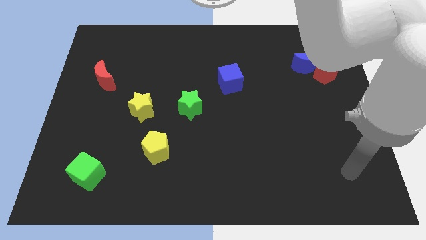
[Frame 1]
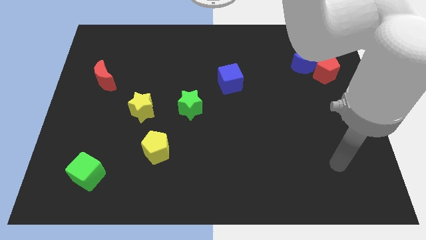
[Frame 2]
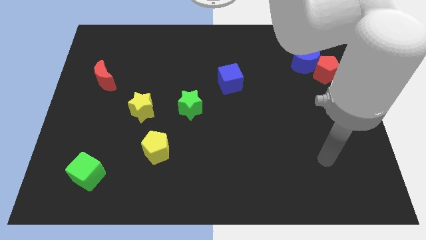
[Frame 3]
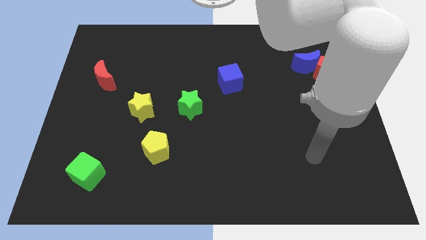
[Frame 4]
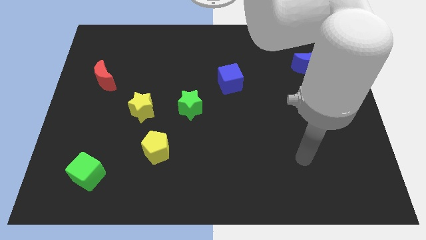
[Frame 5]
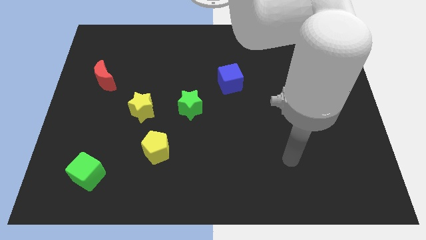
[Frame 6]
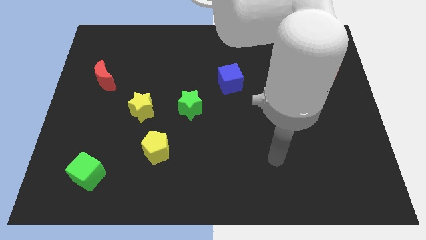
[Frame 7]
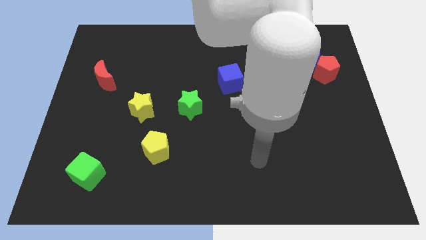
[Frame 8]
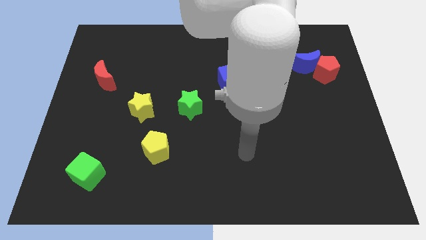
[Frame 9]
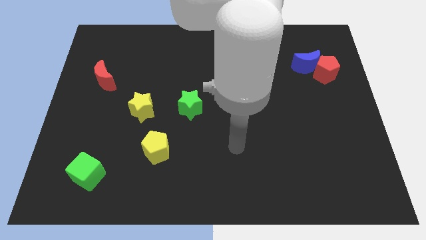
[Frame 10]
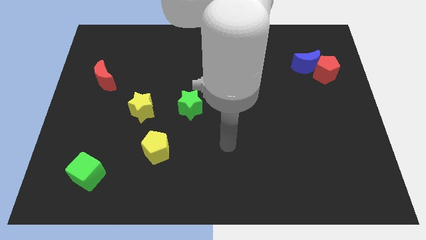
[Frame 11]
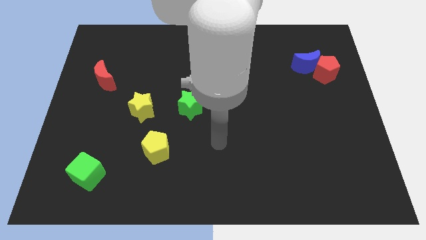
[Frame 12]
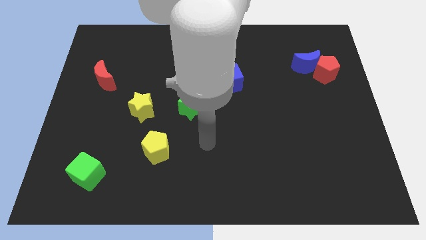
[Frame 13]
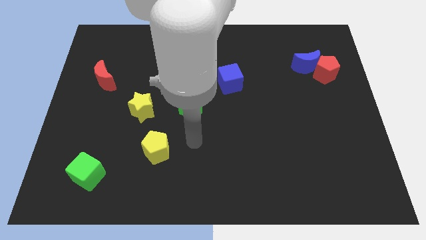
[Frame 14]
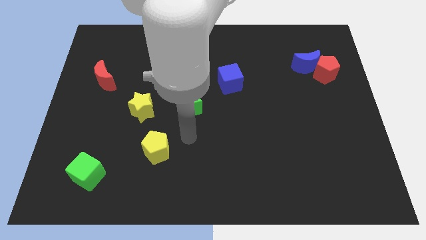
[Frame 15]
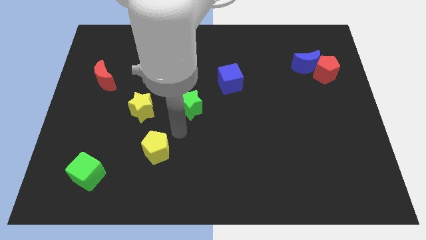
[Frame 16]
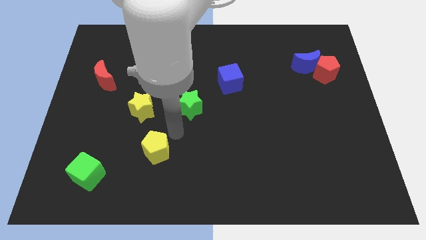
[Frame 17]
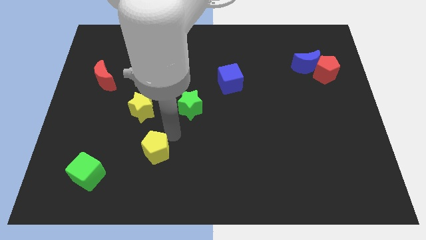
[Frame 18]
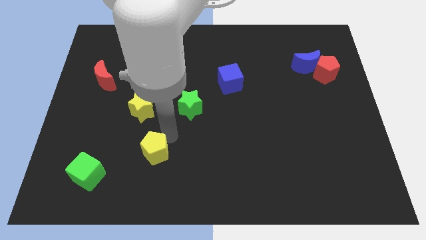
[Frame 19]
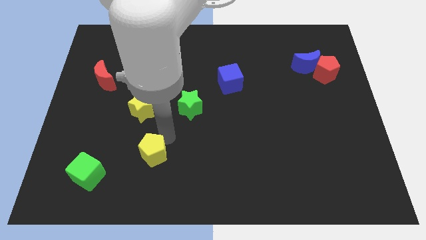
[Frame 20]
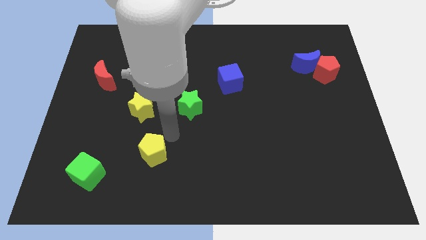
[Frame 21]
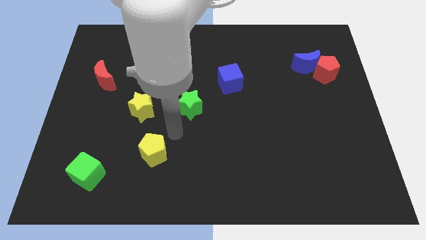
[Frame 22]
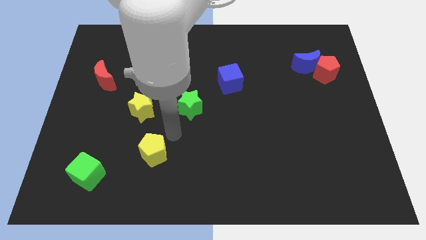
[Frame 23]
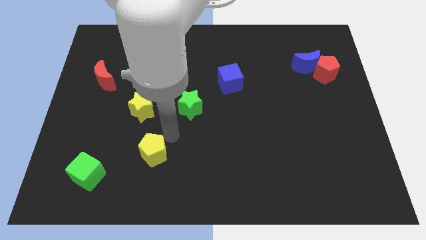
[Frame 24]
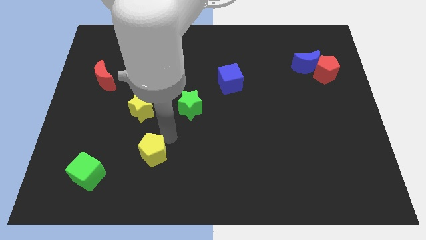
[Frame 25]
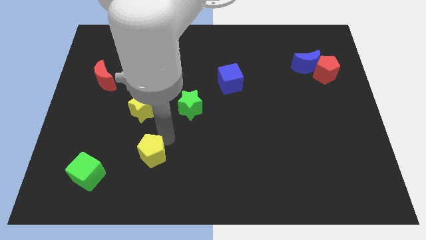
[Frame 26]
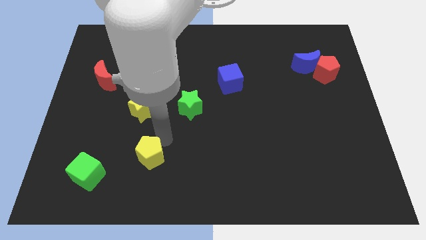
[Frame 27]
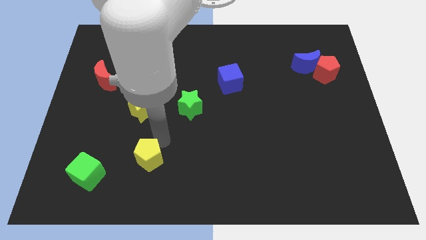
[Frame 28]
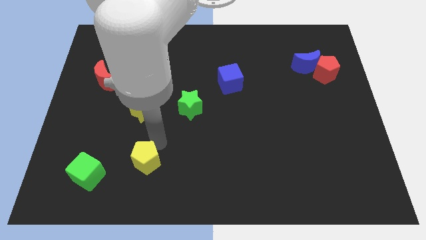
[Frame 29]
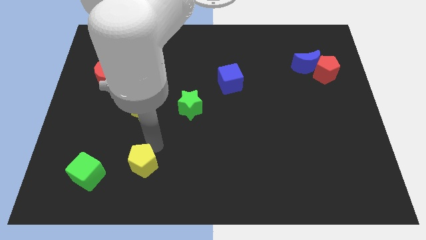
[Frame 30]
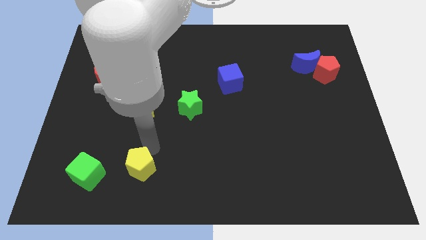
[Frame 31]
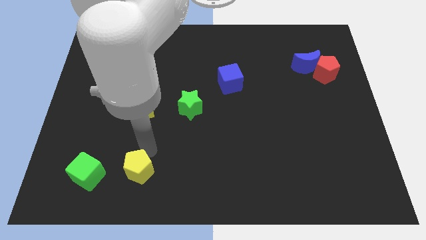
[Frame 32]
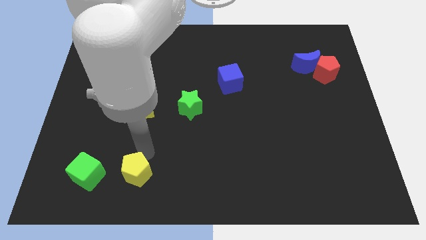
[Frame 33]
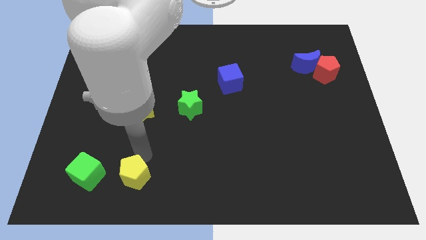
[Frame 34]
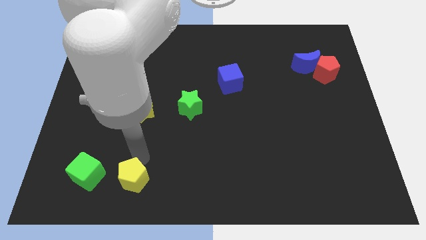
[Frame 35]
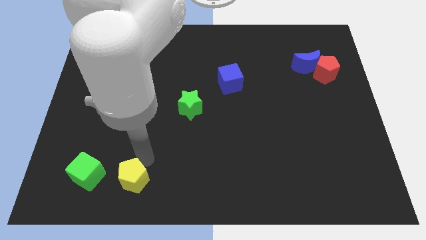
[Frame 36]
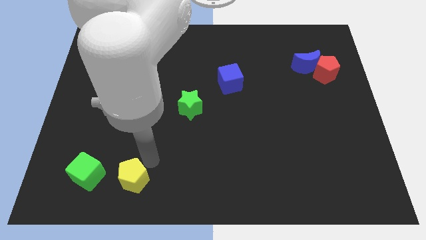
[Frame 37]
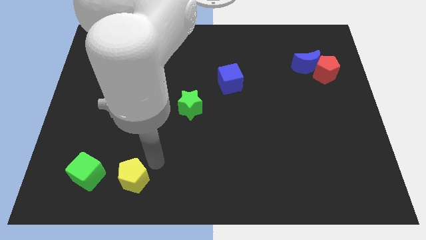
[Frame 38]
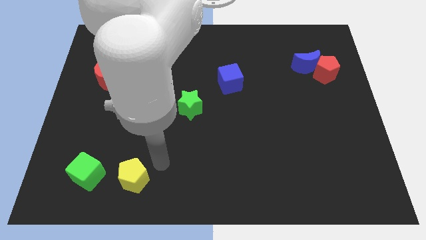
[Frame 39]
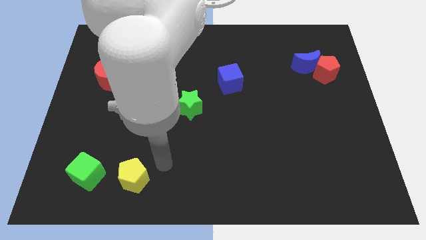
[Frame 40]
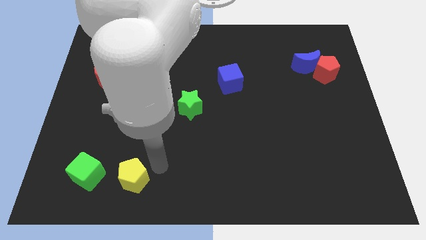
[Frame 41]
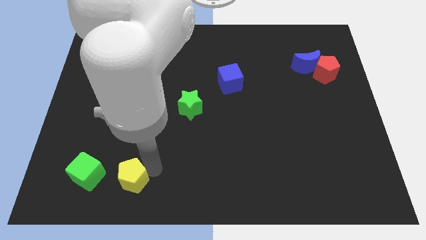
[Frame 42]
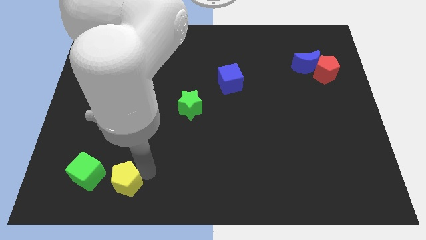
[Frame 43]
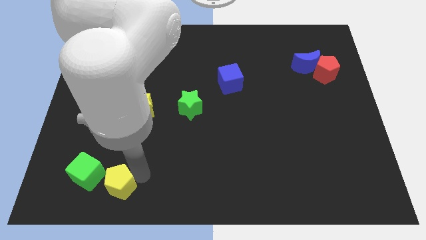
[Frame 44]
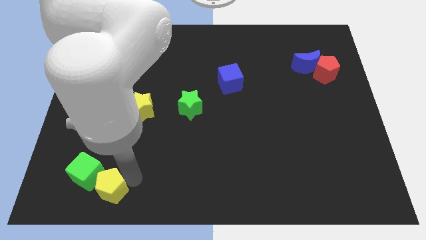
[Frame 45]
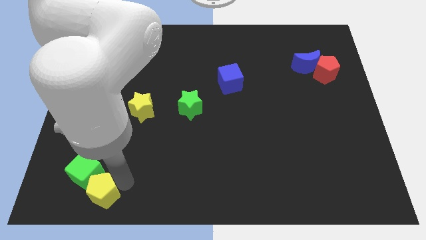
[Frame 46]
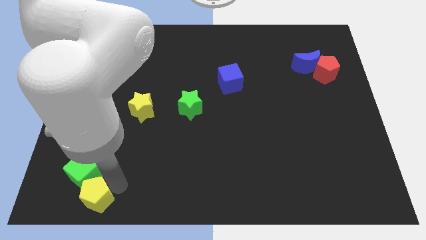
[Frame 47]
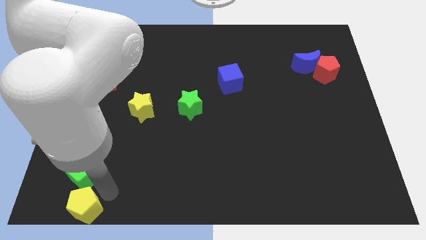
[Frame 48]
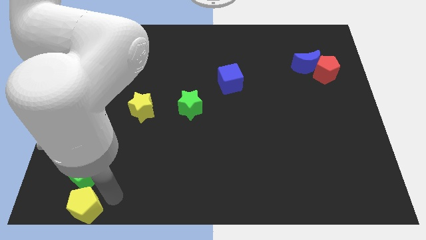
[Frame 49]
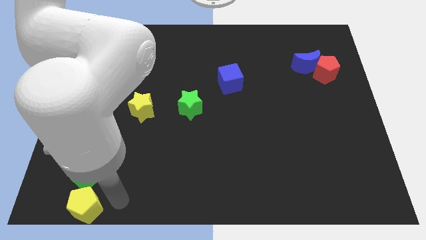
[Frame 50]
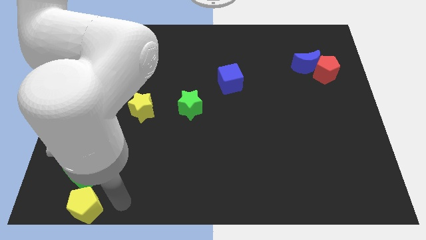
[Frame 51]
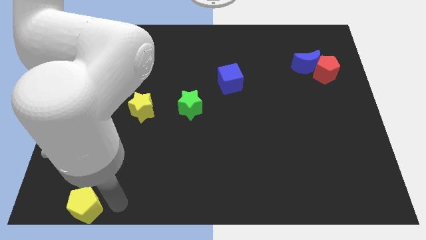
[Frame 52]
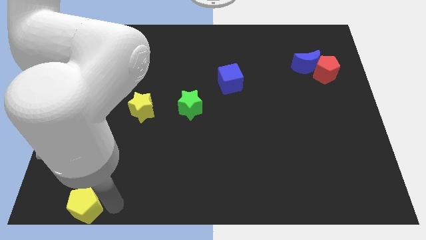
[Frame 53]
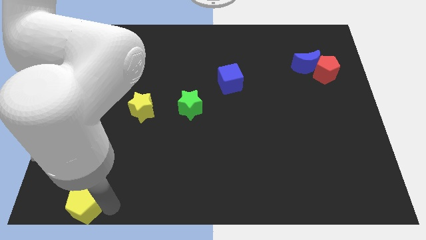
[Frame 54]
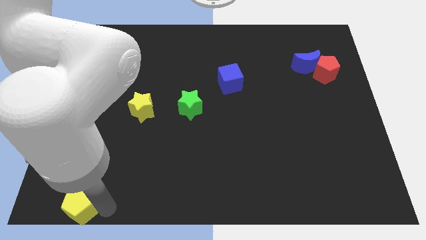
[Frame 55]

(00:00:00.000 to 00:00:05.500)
put the yellow pentagon to the bottom left of the board
